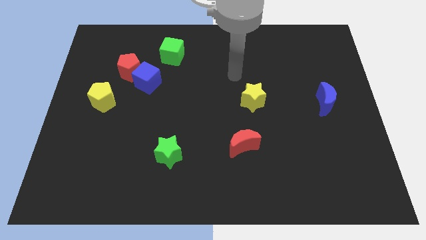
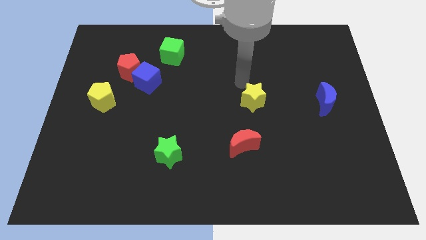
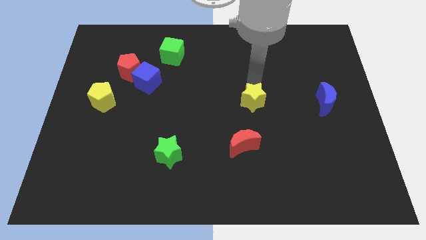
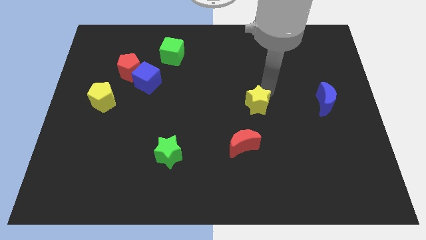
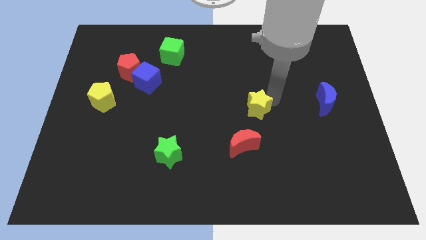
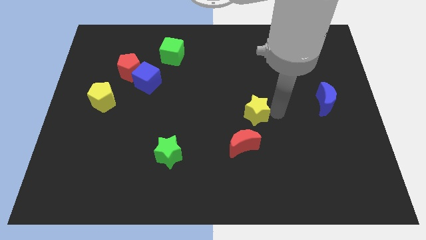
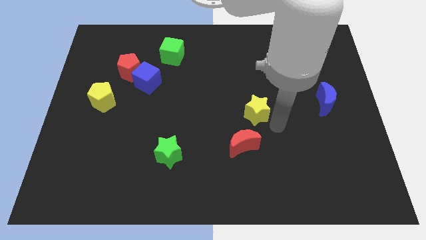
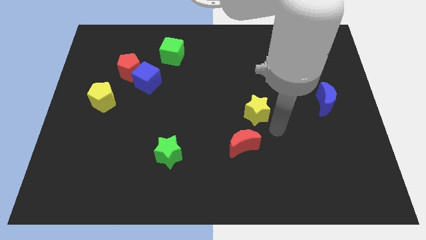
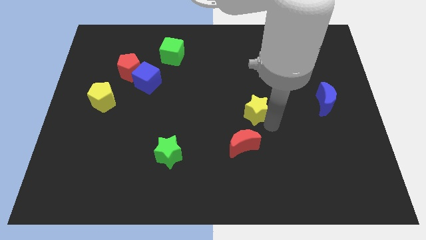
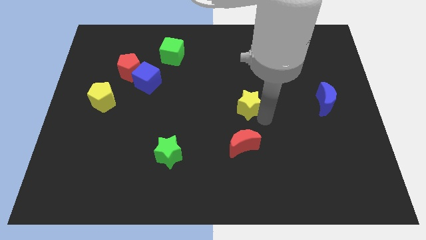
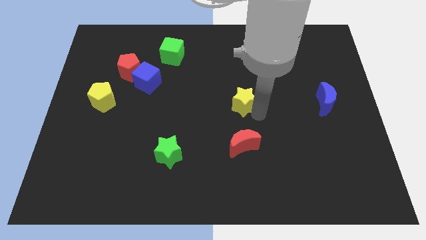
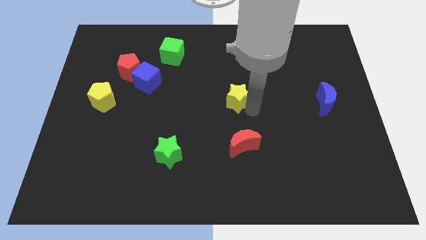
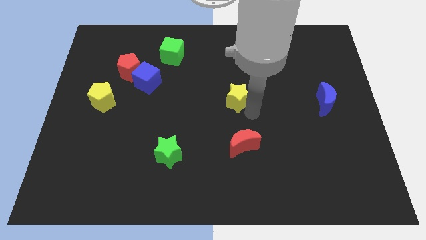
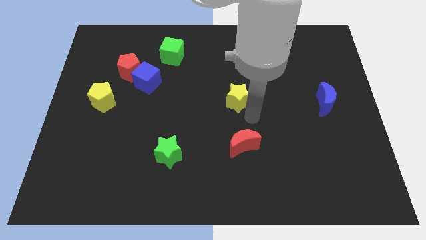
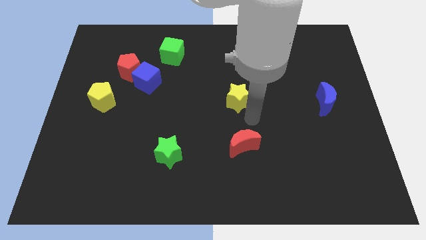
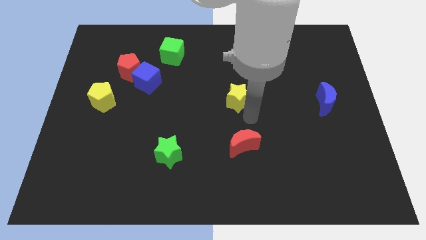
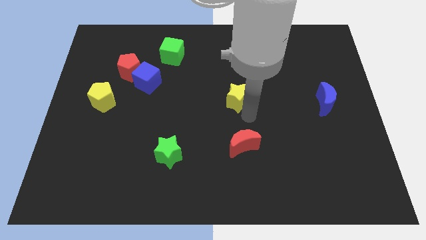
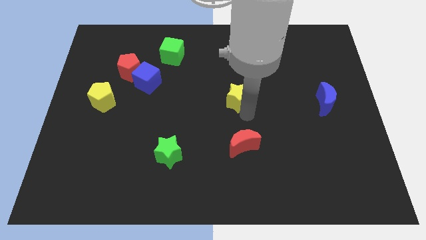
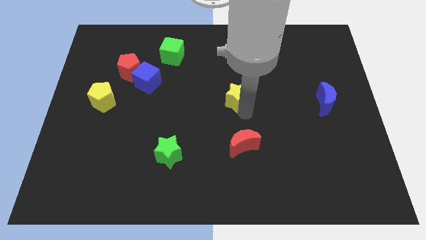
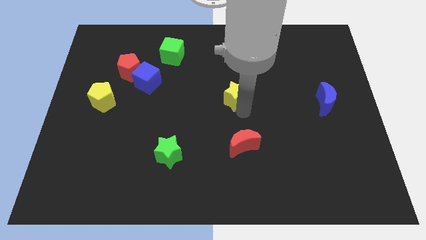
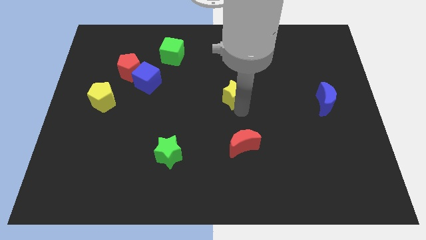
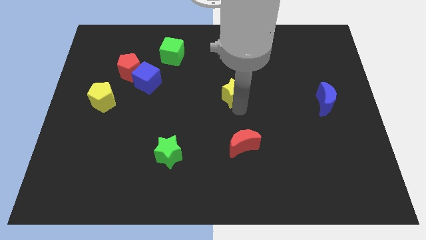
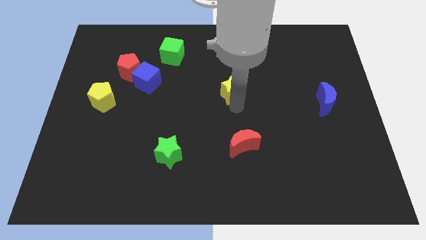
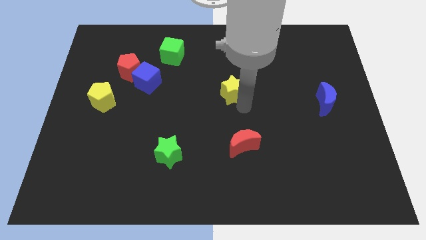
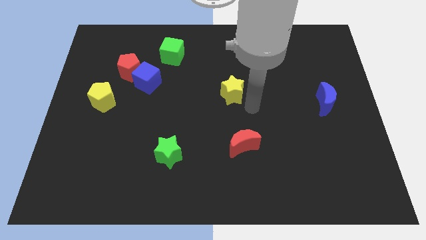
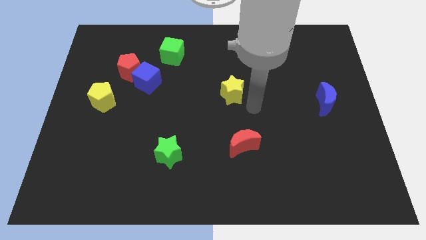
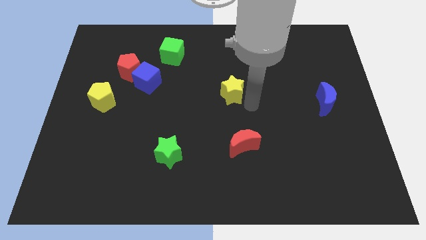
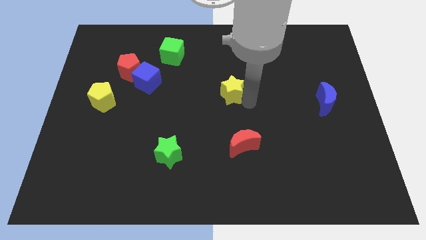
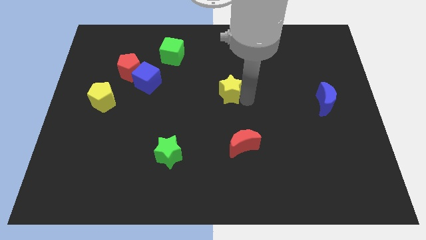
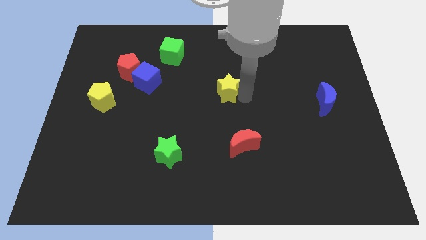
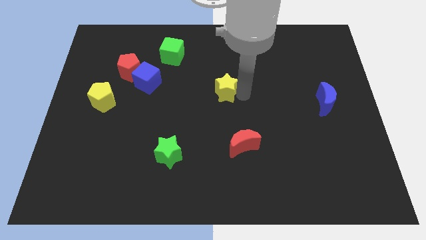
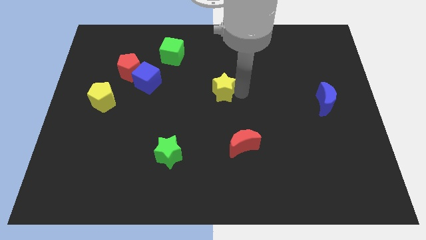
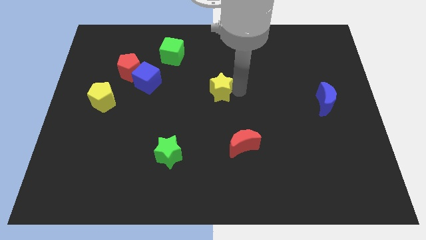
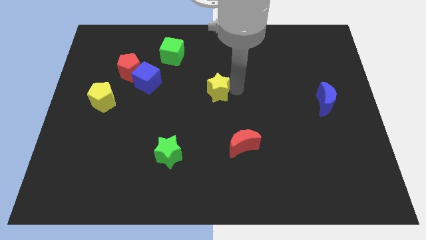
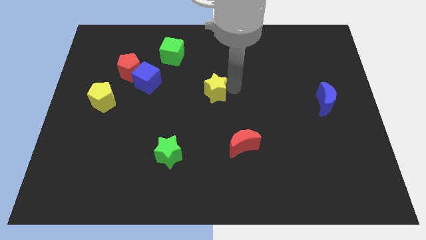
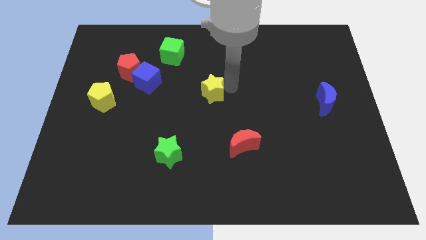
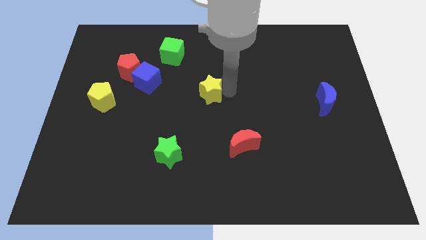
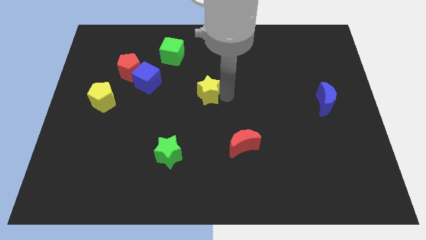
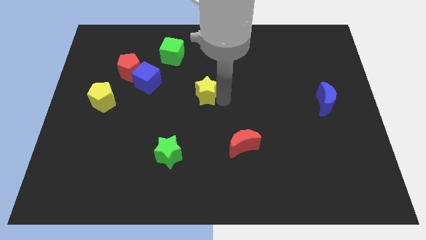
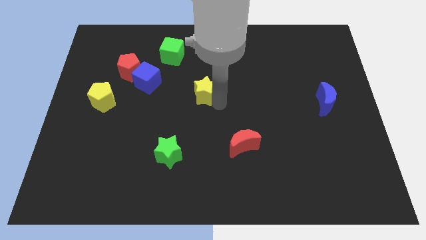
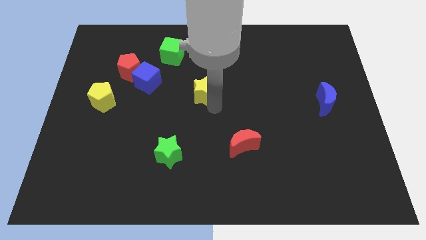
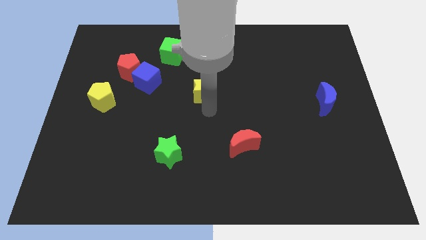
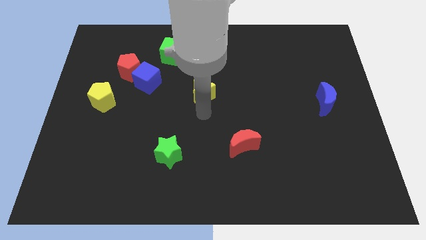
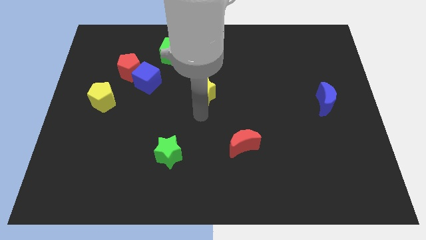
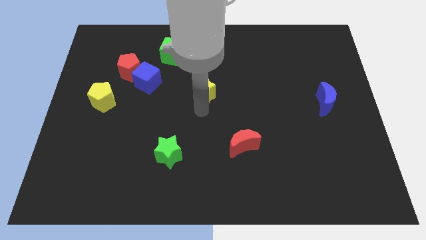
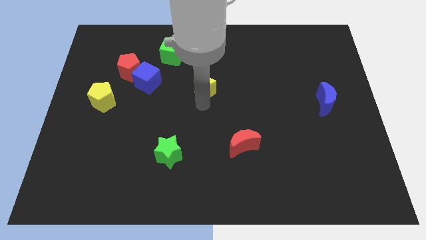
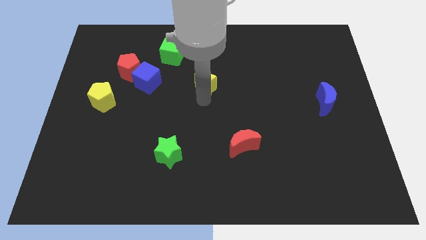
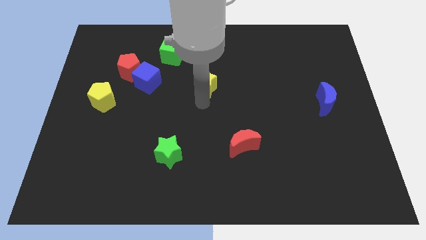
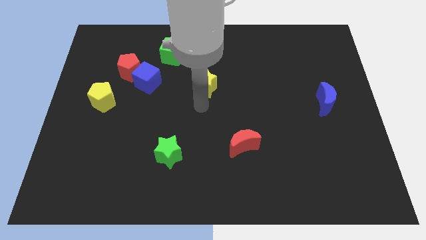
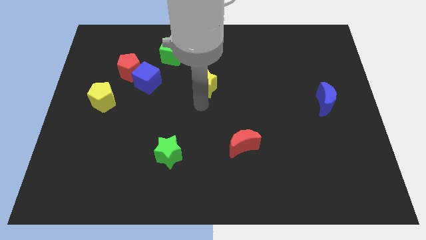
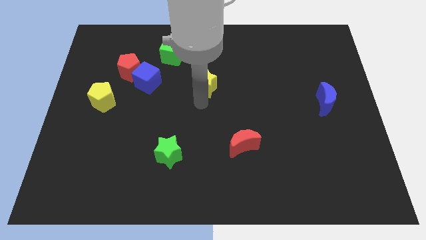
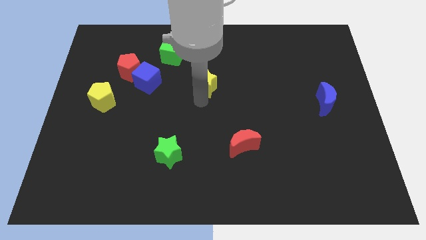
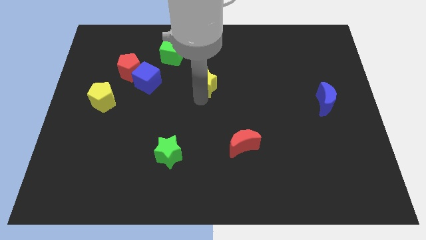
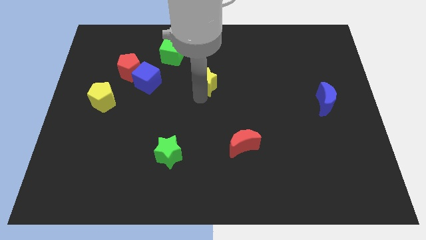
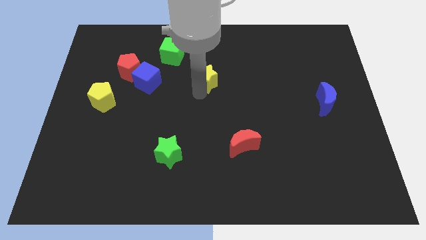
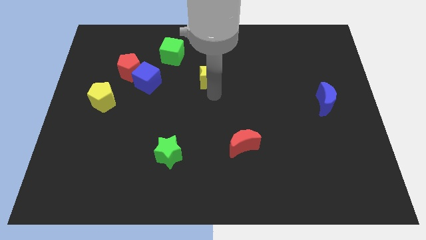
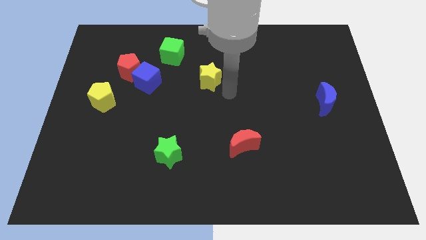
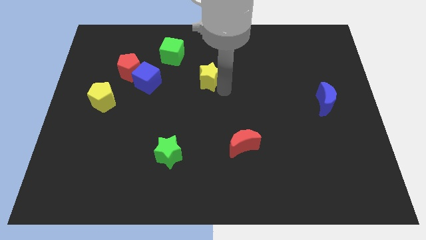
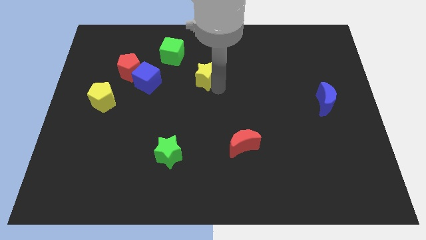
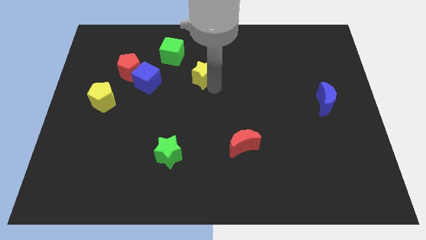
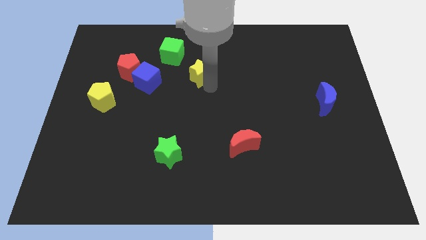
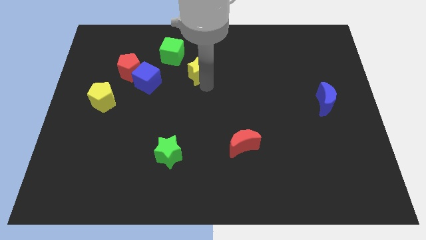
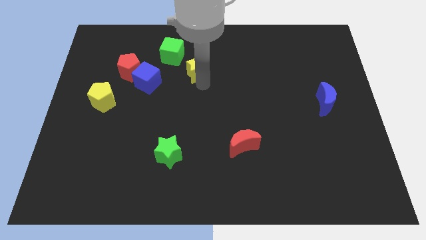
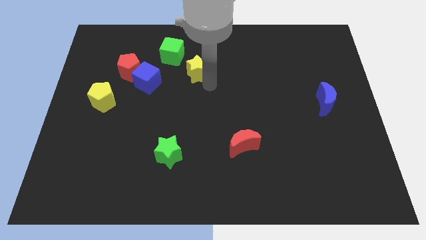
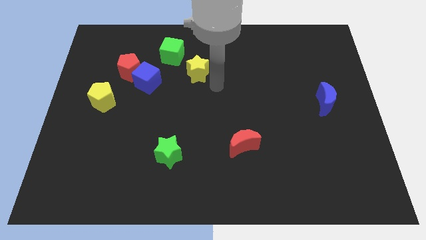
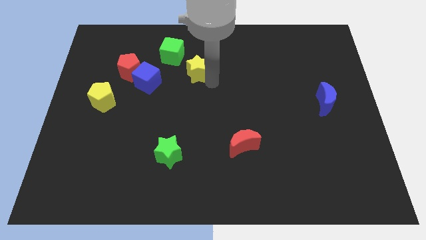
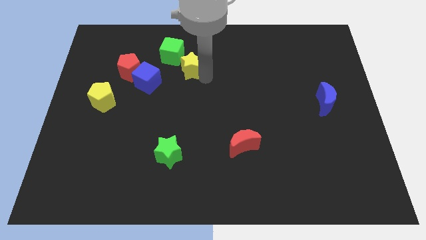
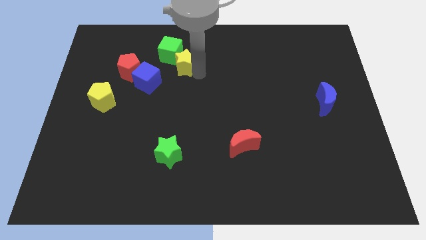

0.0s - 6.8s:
put the yellow star towards the green cube

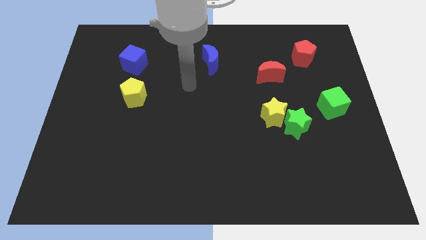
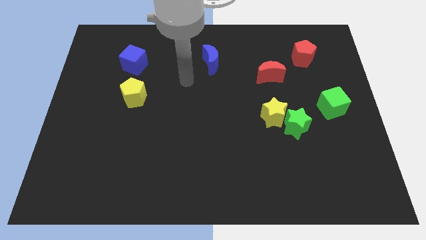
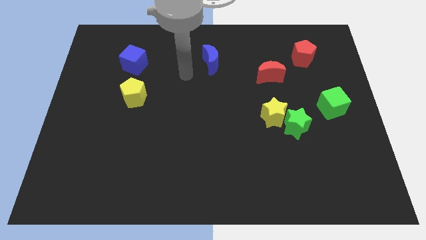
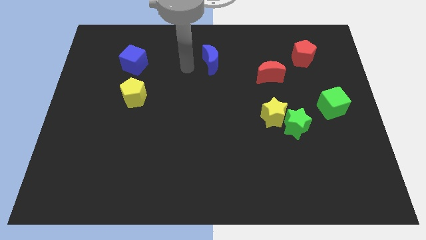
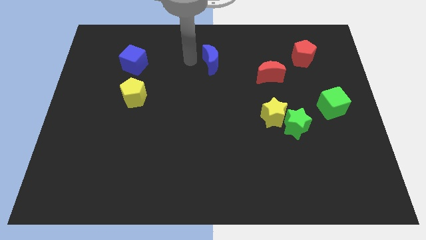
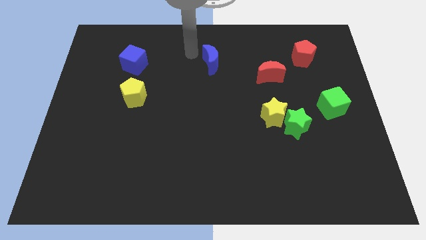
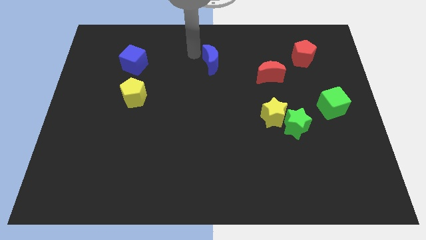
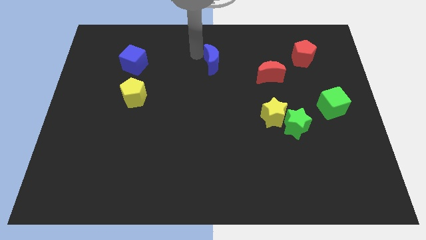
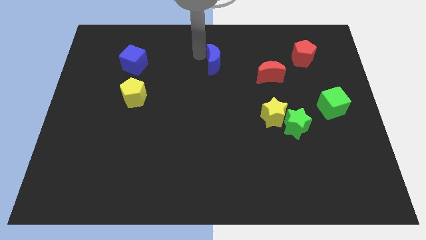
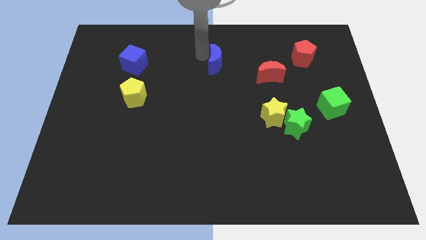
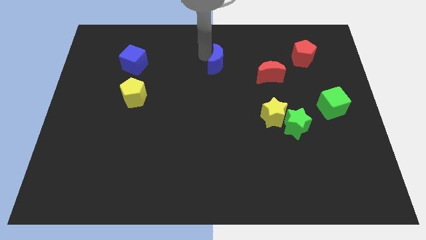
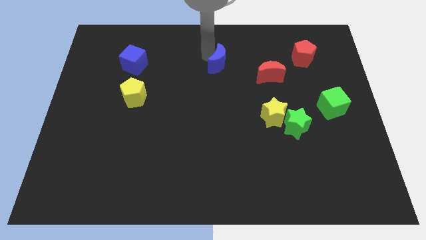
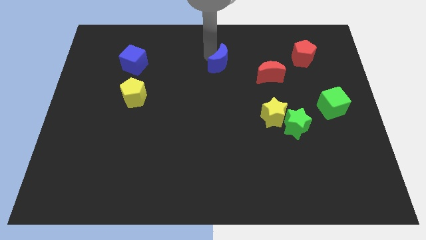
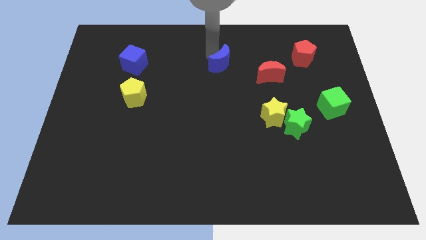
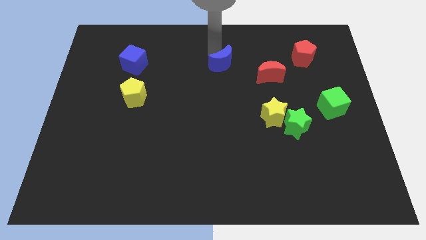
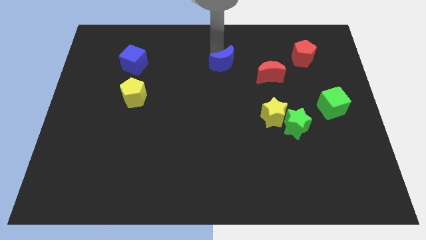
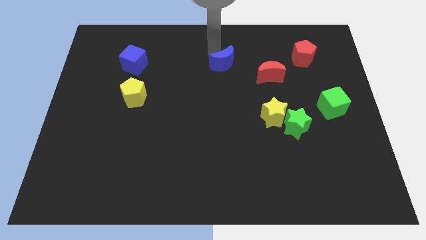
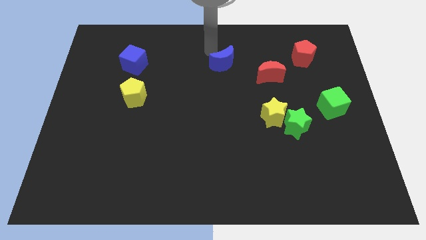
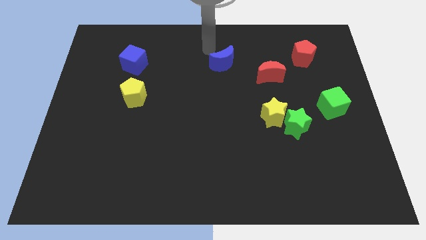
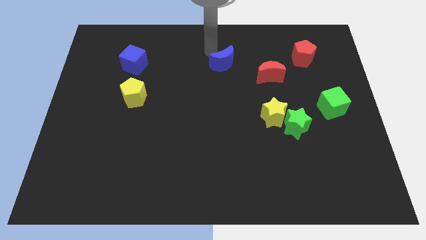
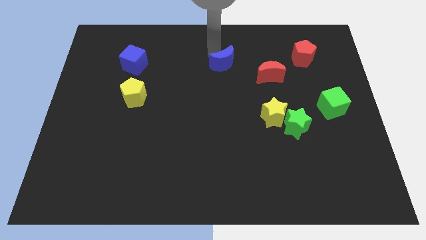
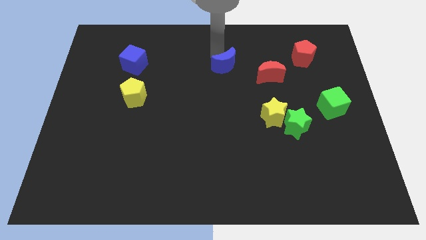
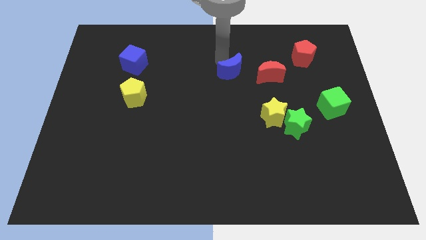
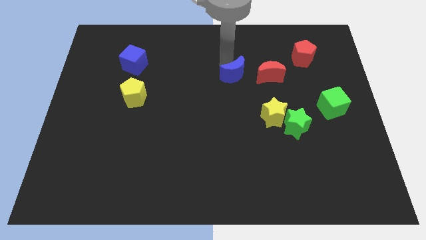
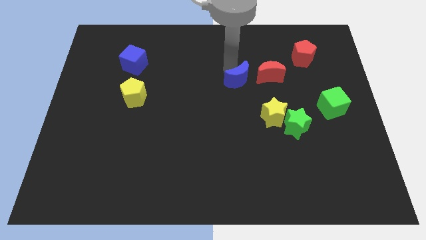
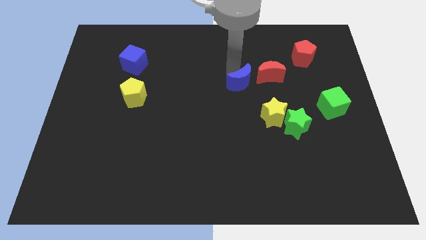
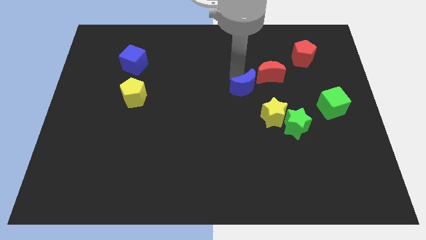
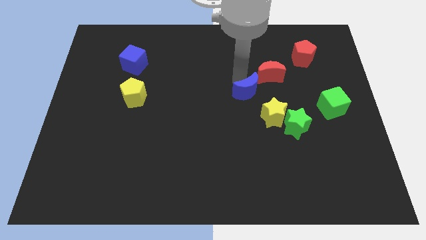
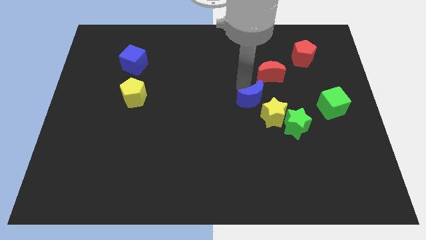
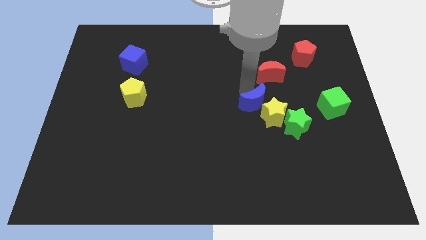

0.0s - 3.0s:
move the blue moon close to the yellow star
